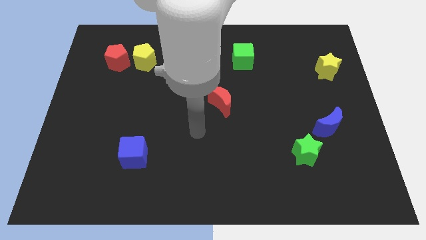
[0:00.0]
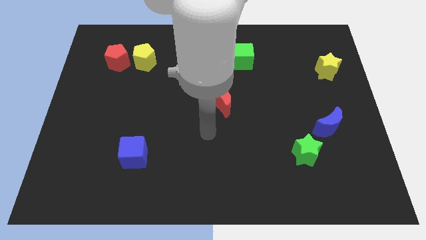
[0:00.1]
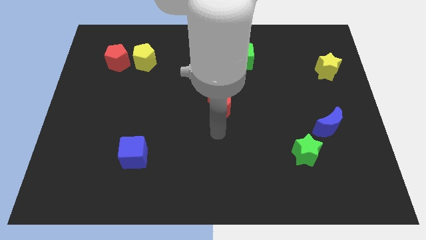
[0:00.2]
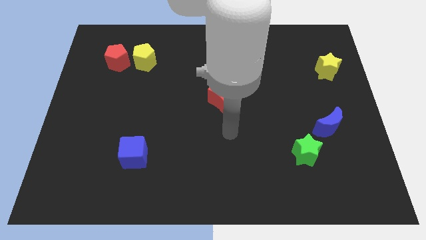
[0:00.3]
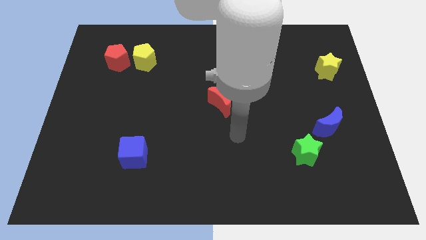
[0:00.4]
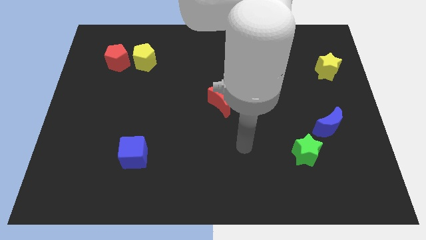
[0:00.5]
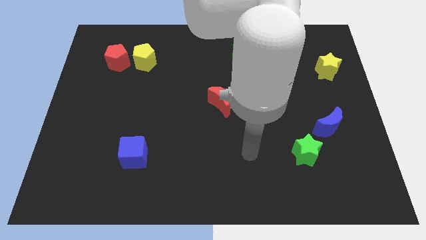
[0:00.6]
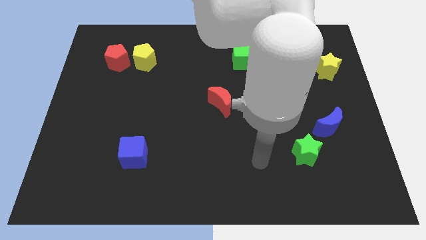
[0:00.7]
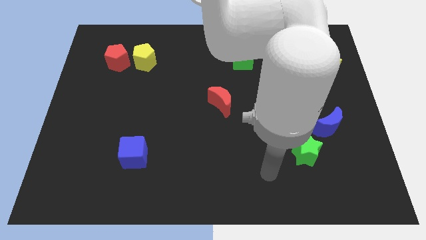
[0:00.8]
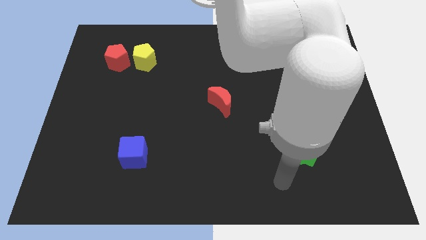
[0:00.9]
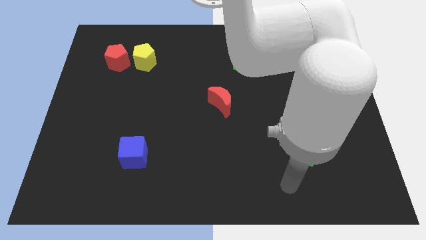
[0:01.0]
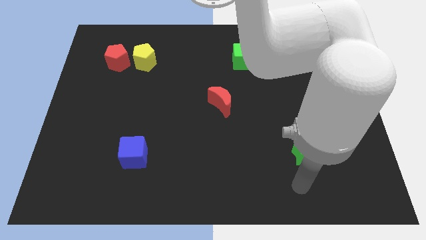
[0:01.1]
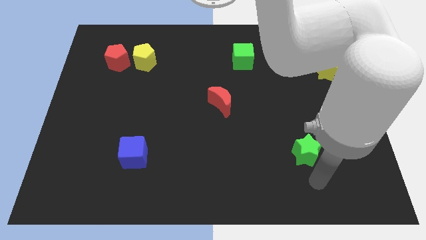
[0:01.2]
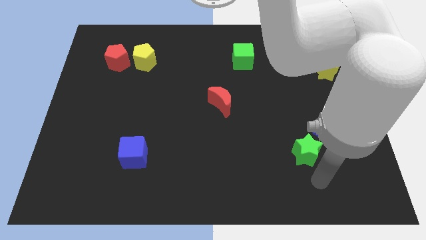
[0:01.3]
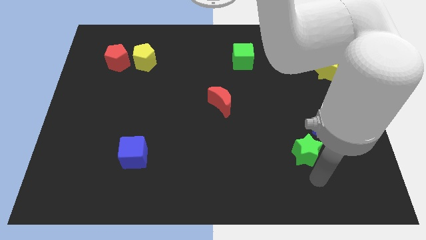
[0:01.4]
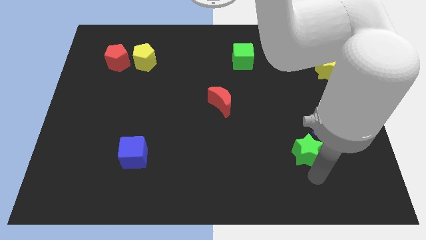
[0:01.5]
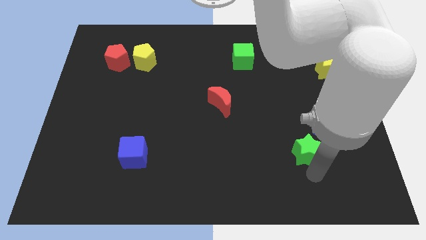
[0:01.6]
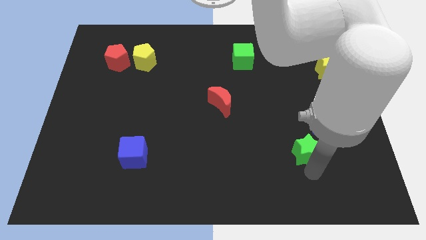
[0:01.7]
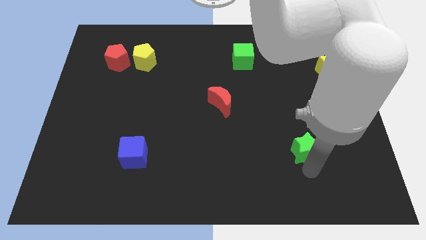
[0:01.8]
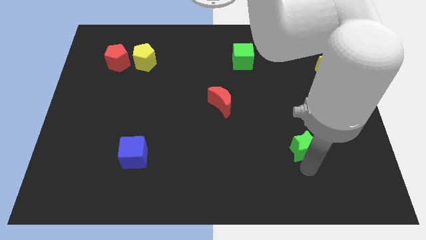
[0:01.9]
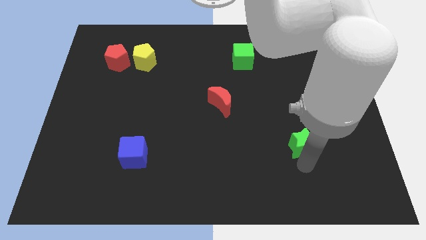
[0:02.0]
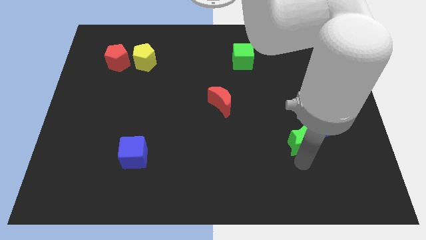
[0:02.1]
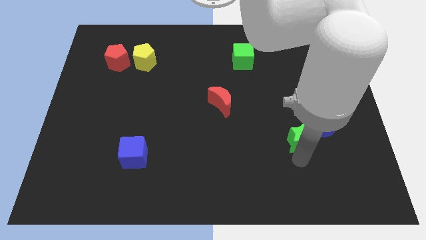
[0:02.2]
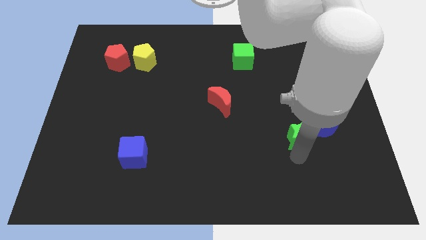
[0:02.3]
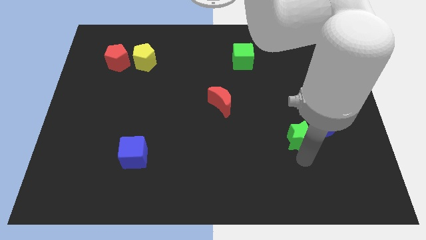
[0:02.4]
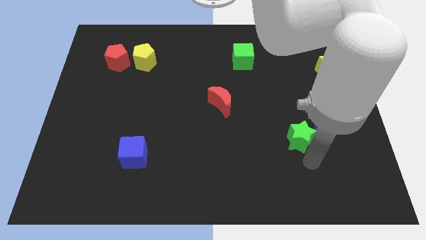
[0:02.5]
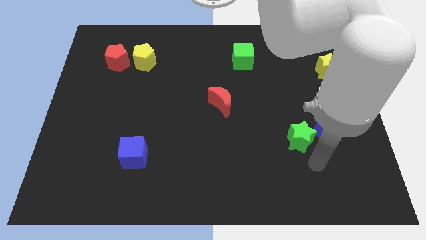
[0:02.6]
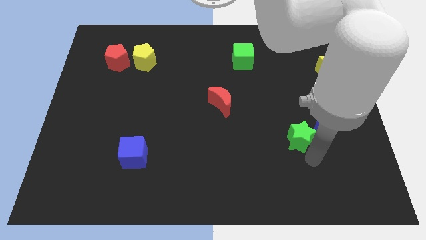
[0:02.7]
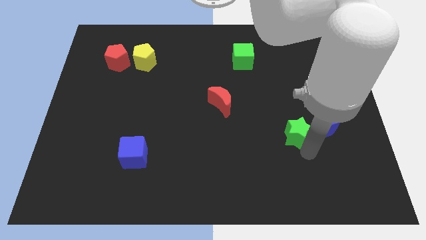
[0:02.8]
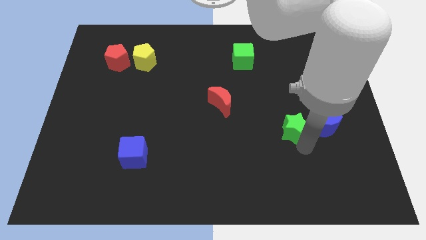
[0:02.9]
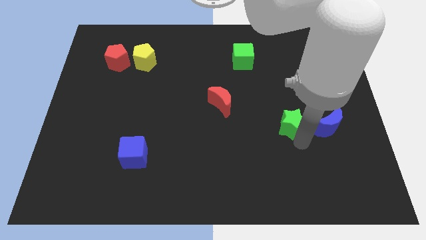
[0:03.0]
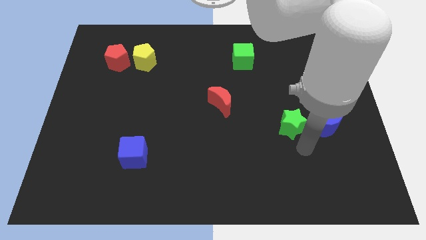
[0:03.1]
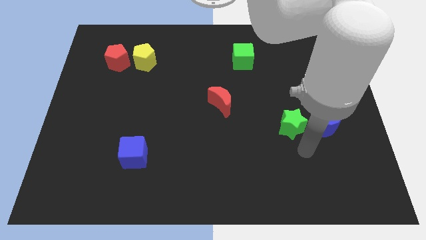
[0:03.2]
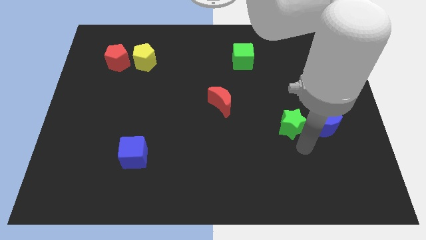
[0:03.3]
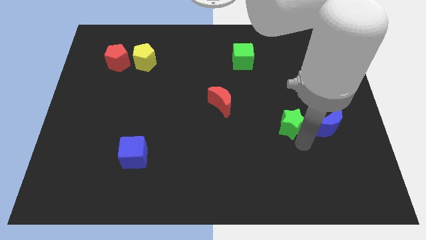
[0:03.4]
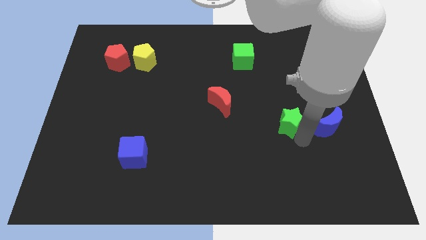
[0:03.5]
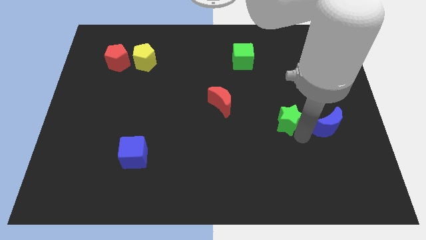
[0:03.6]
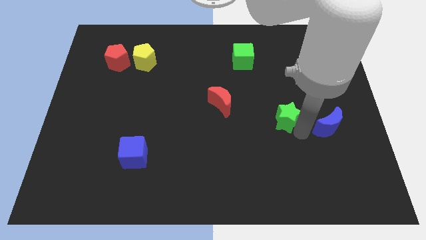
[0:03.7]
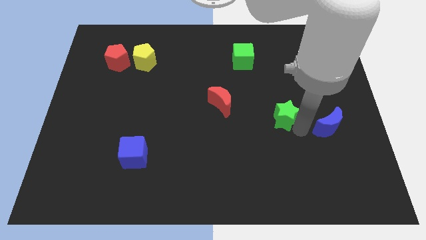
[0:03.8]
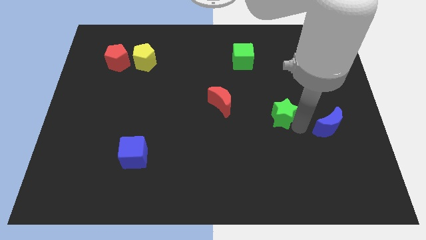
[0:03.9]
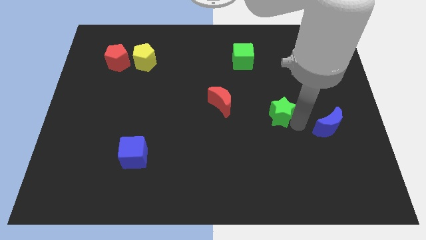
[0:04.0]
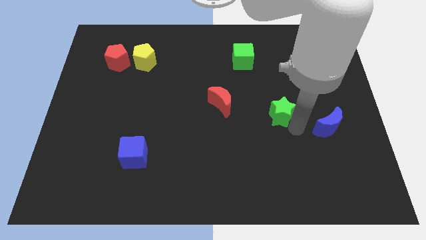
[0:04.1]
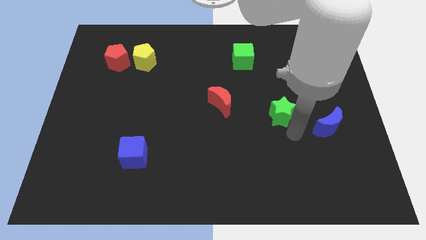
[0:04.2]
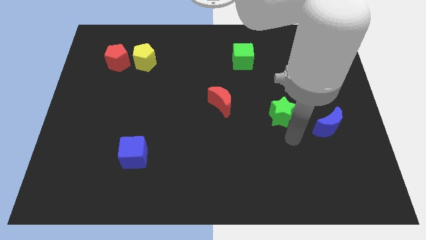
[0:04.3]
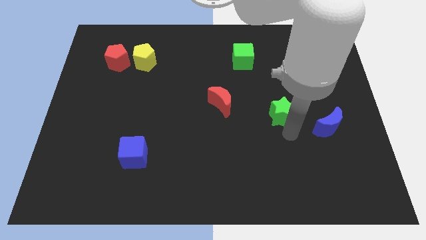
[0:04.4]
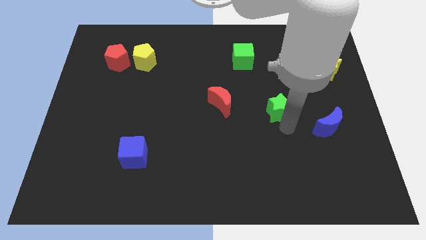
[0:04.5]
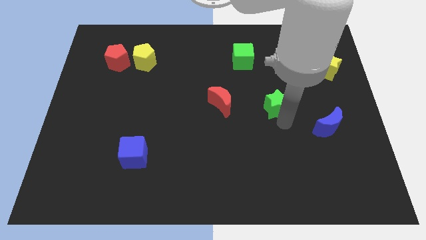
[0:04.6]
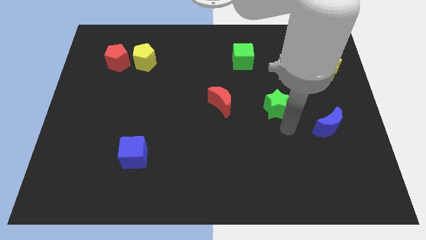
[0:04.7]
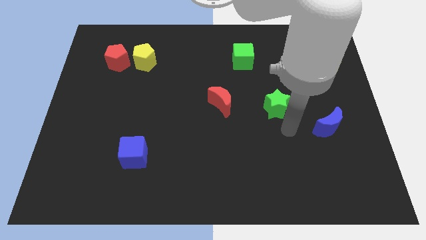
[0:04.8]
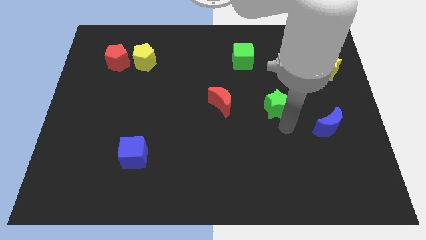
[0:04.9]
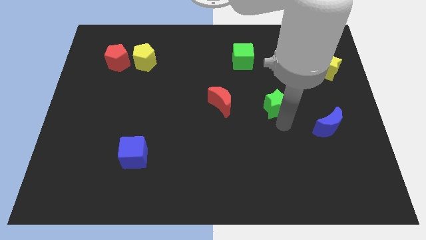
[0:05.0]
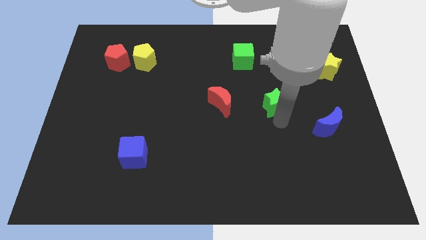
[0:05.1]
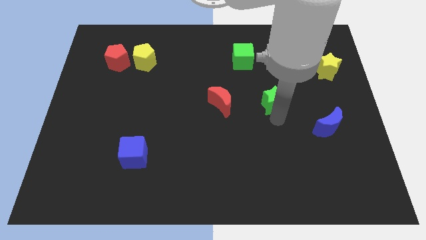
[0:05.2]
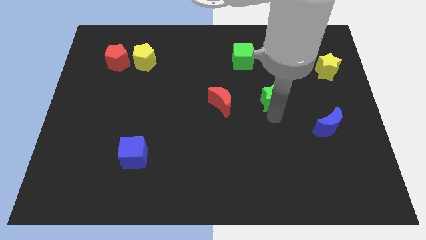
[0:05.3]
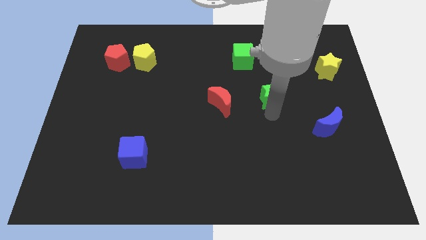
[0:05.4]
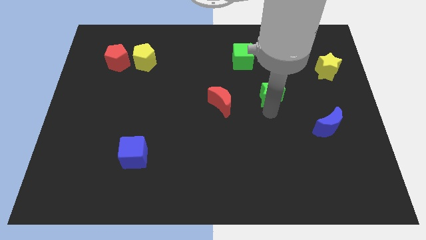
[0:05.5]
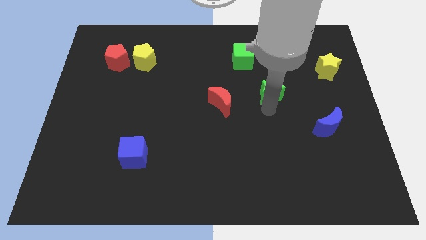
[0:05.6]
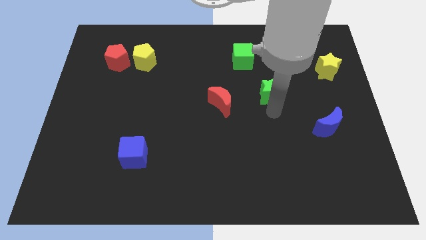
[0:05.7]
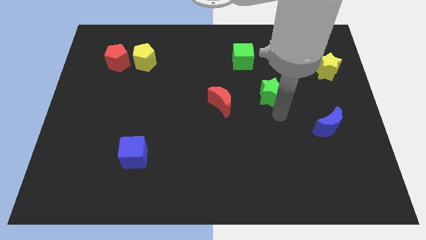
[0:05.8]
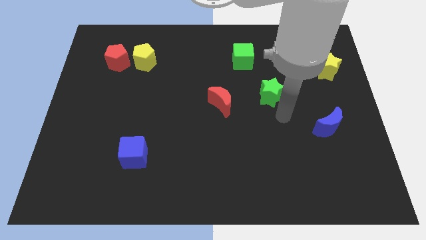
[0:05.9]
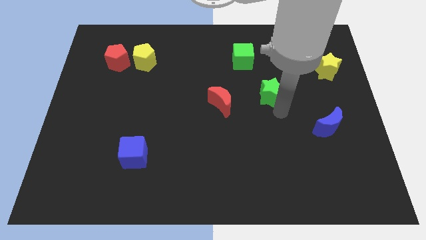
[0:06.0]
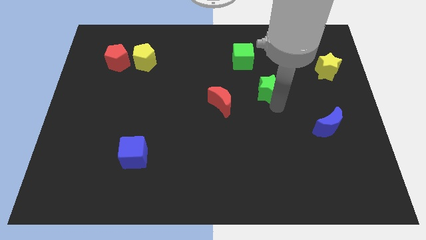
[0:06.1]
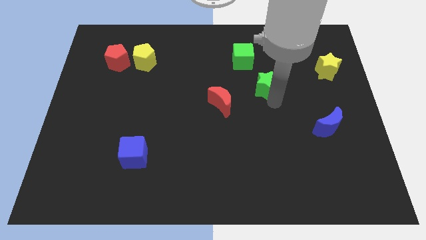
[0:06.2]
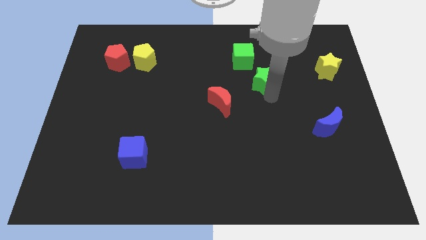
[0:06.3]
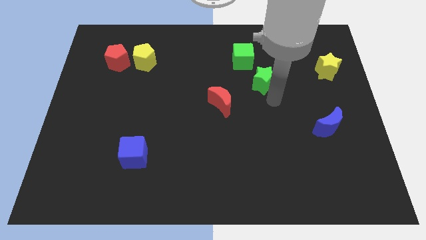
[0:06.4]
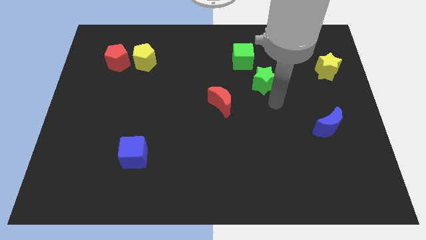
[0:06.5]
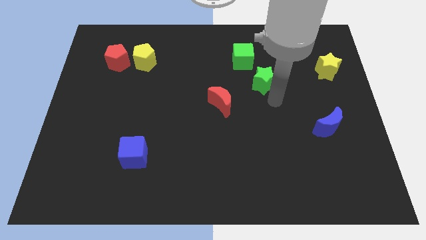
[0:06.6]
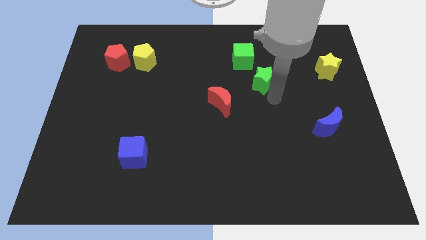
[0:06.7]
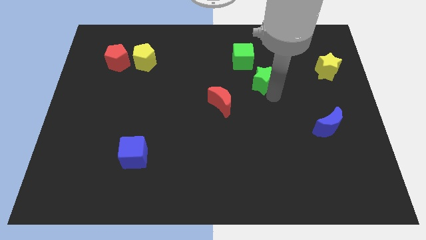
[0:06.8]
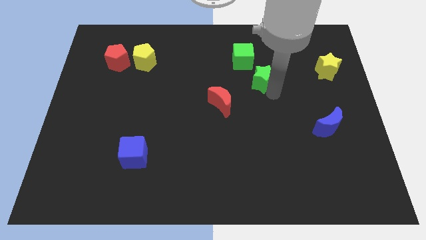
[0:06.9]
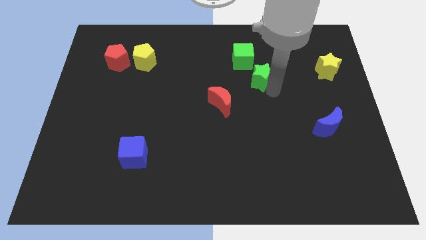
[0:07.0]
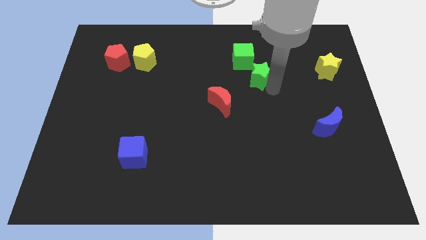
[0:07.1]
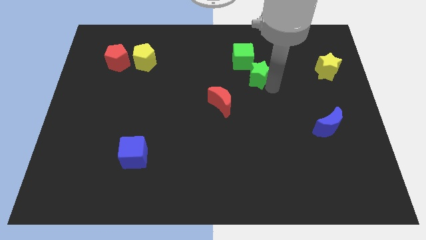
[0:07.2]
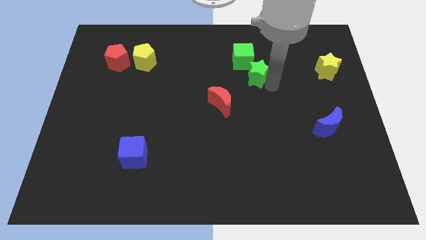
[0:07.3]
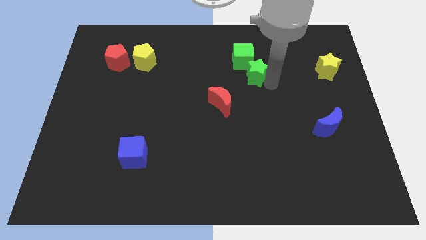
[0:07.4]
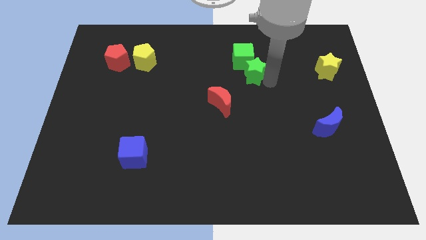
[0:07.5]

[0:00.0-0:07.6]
put the green star towards the green cube
